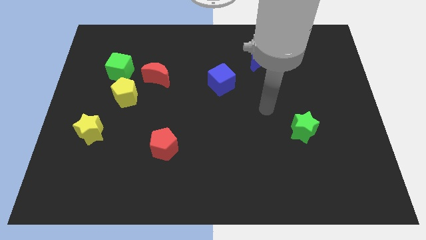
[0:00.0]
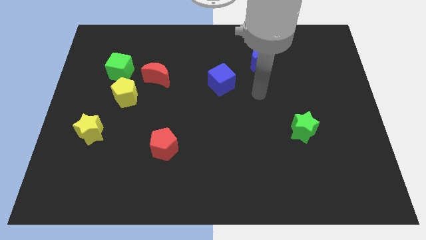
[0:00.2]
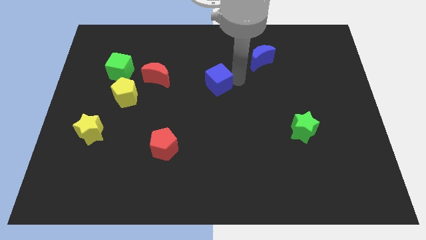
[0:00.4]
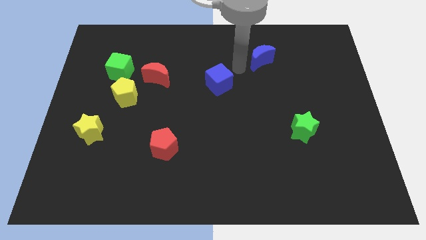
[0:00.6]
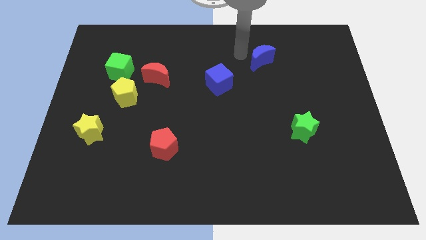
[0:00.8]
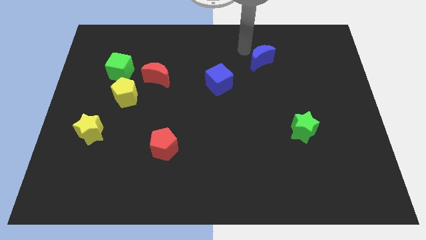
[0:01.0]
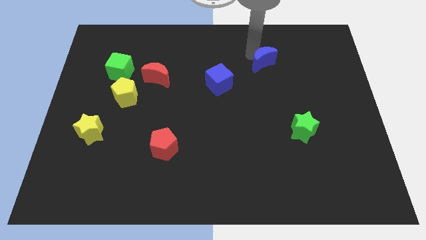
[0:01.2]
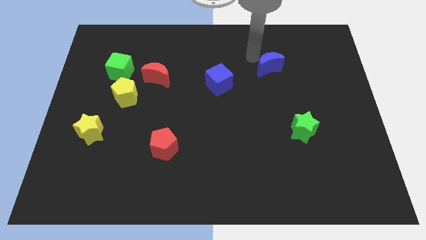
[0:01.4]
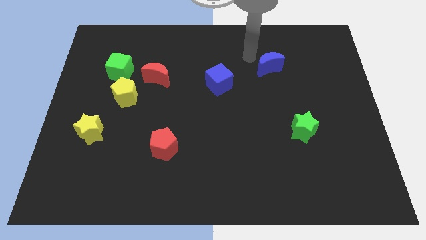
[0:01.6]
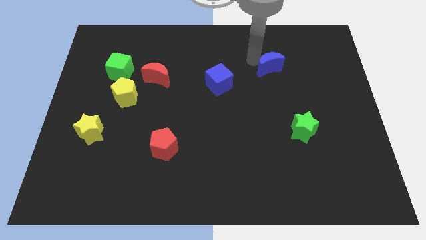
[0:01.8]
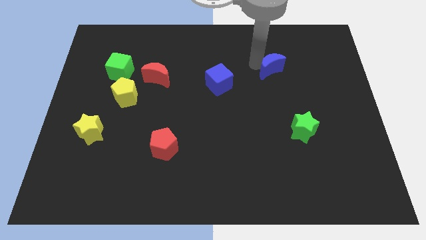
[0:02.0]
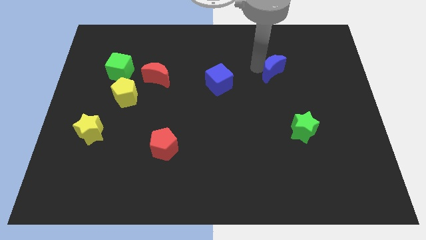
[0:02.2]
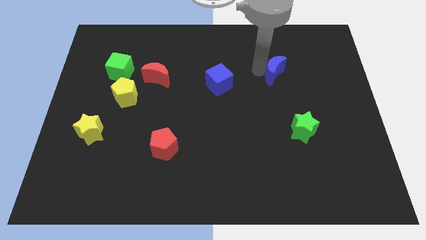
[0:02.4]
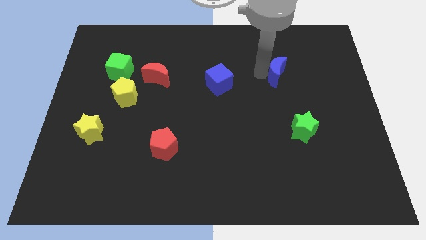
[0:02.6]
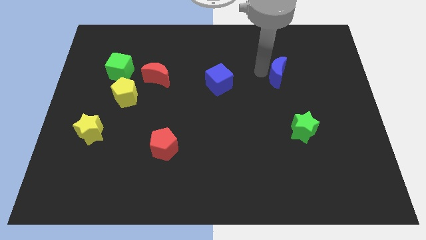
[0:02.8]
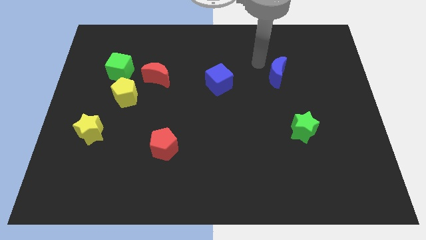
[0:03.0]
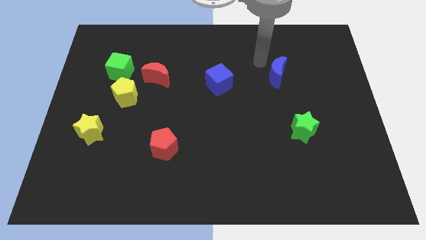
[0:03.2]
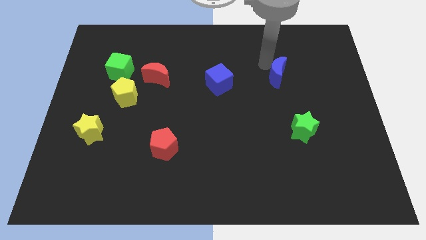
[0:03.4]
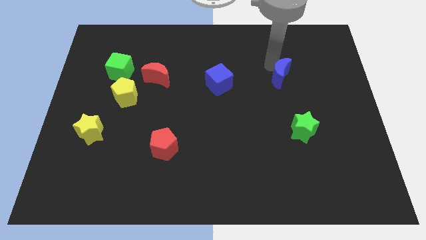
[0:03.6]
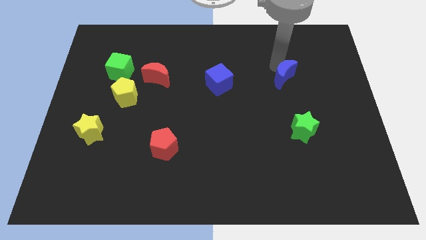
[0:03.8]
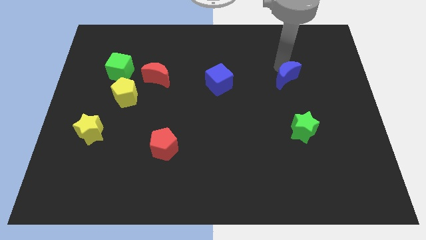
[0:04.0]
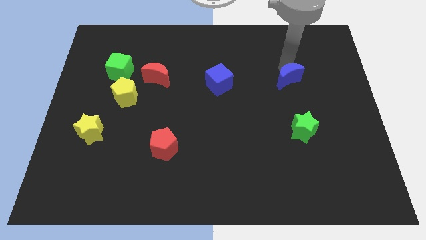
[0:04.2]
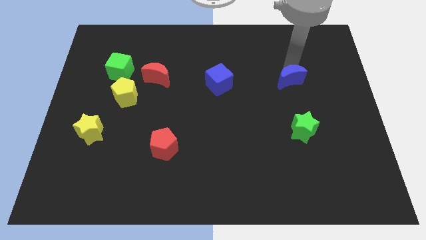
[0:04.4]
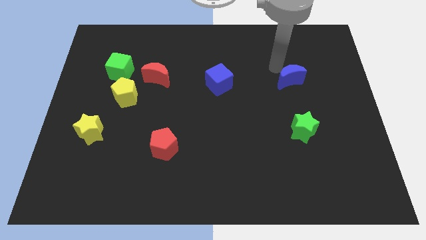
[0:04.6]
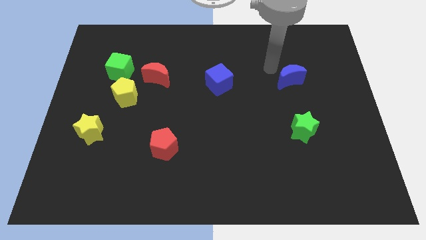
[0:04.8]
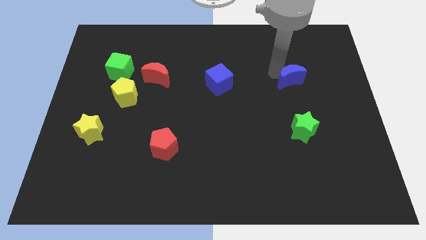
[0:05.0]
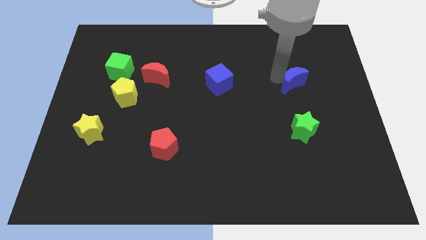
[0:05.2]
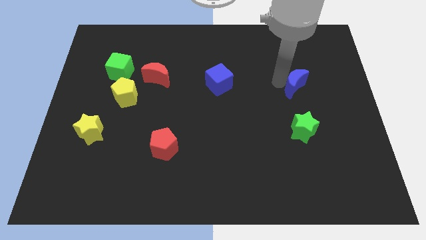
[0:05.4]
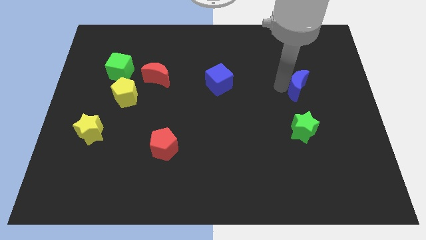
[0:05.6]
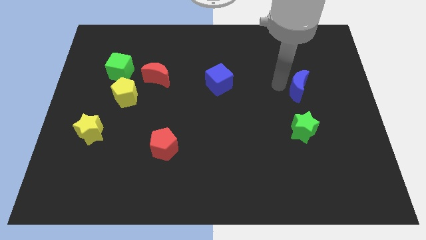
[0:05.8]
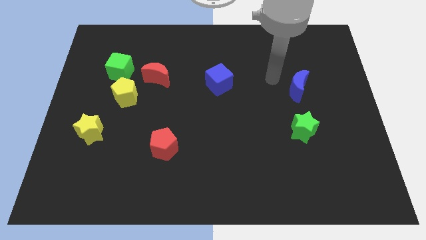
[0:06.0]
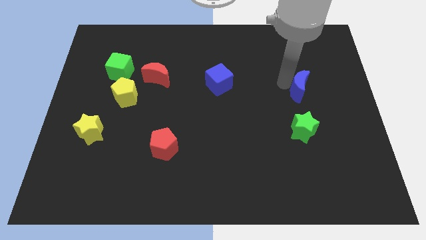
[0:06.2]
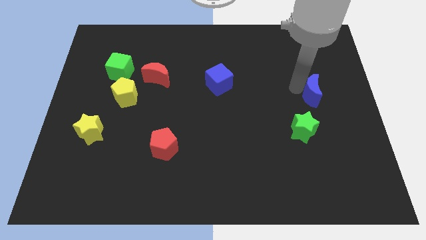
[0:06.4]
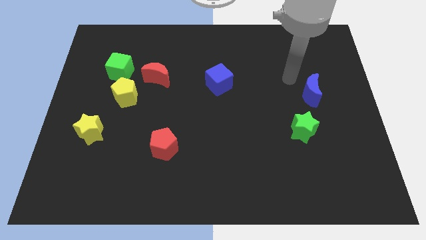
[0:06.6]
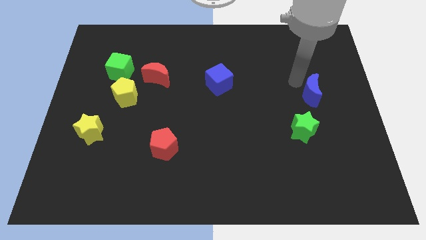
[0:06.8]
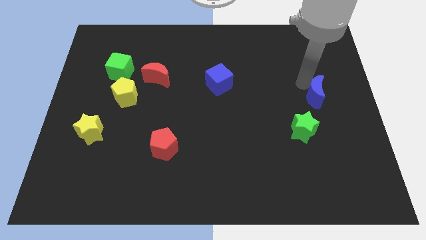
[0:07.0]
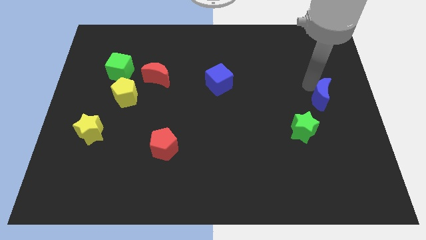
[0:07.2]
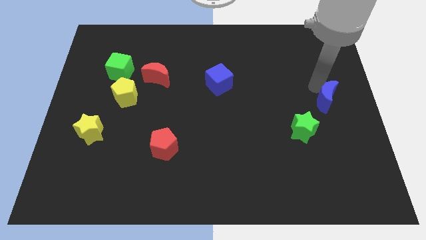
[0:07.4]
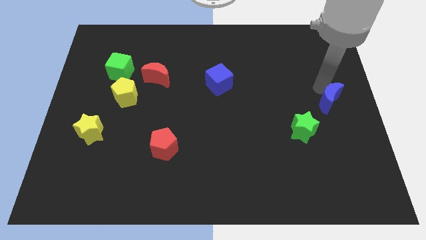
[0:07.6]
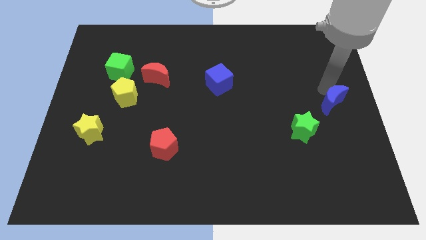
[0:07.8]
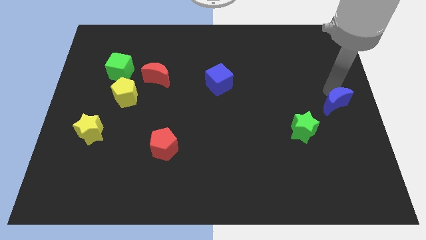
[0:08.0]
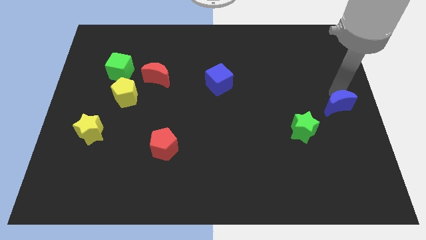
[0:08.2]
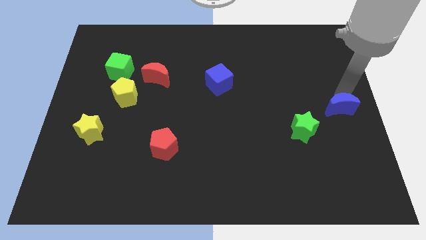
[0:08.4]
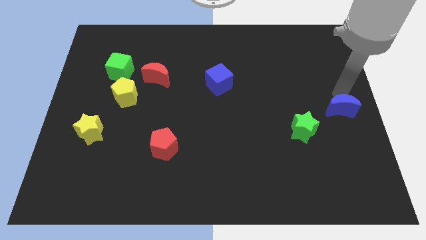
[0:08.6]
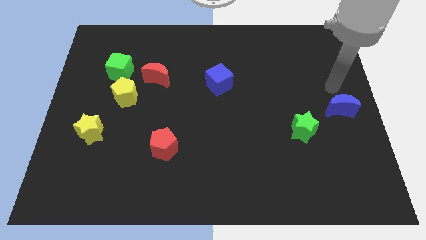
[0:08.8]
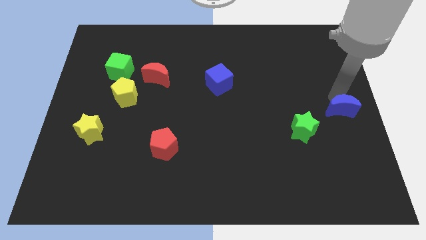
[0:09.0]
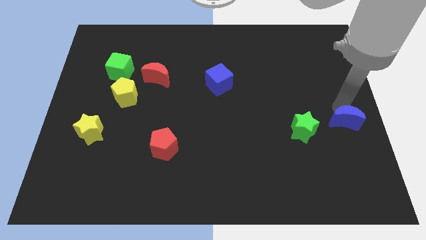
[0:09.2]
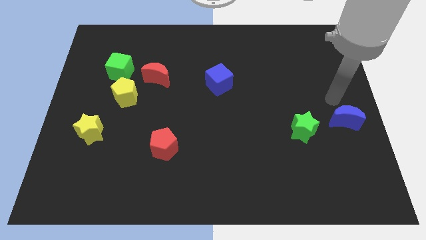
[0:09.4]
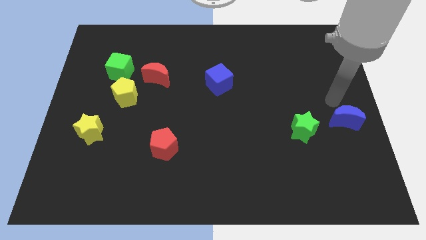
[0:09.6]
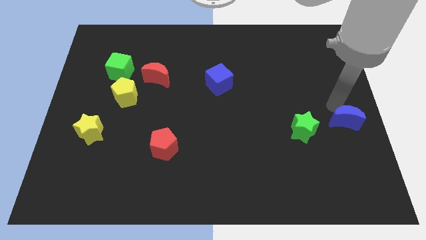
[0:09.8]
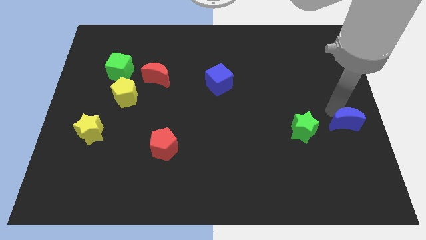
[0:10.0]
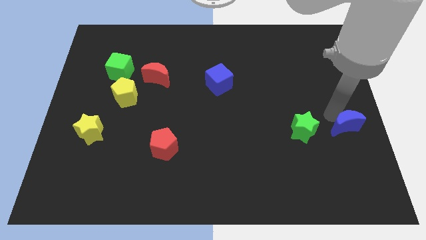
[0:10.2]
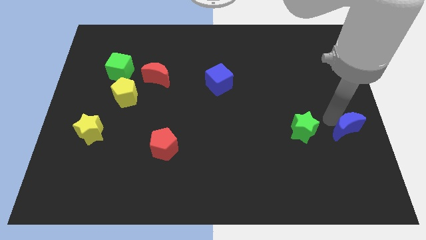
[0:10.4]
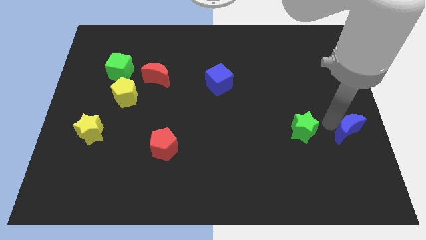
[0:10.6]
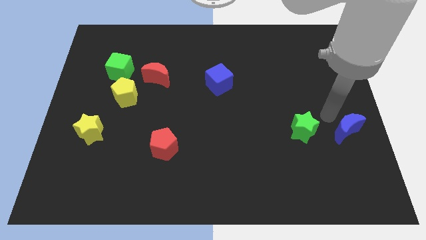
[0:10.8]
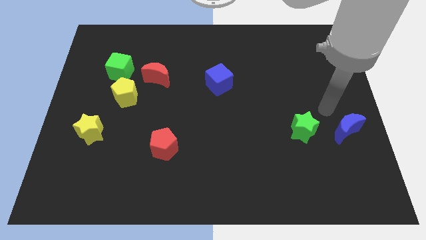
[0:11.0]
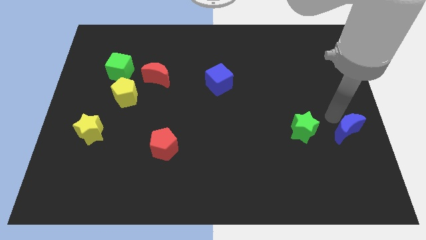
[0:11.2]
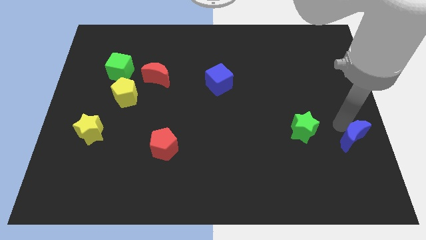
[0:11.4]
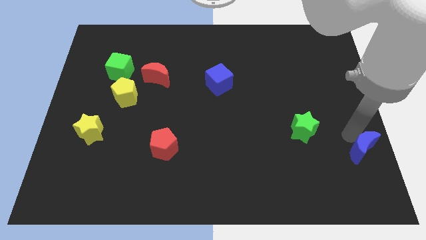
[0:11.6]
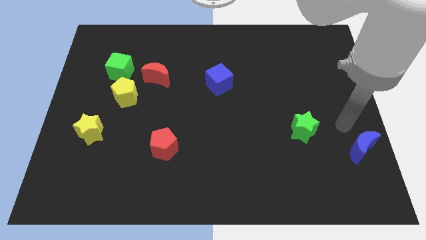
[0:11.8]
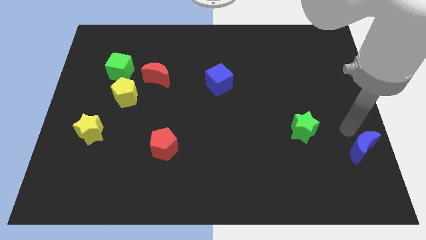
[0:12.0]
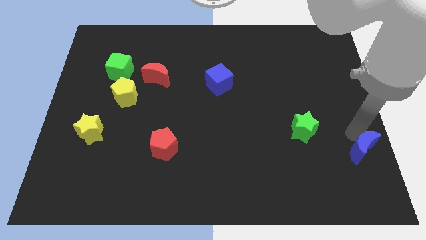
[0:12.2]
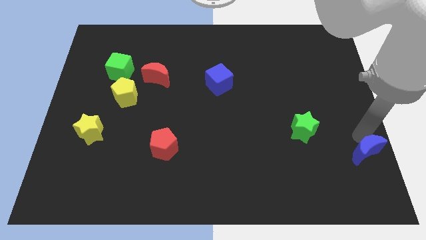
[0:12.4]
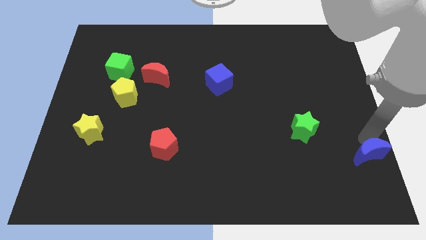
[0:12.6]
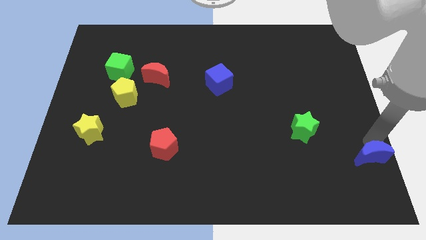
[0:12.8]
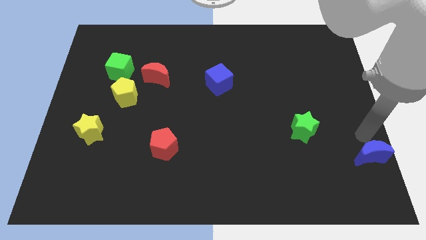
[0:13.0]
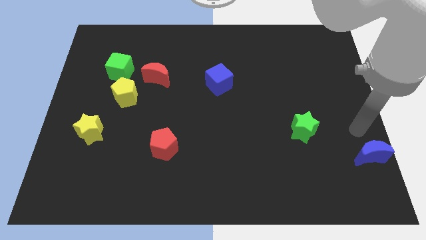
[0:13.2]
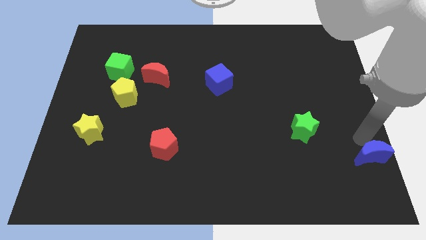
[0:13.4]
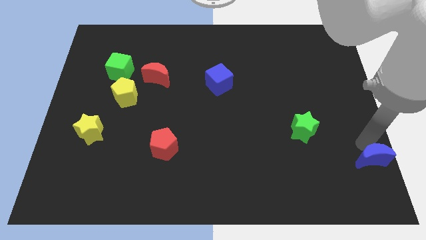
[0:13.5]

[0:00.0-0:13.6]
move the blue moon to the lower right corner
